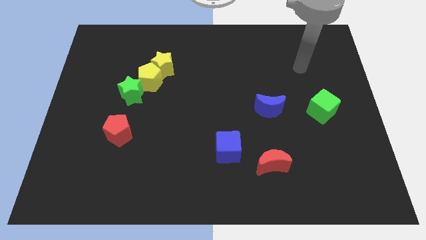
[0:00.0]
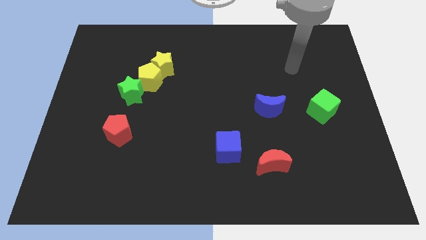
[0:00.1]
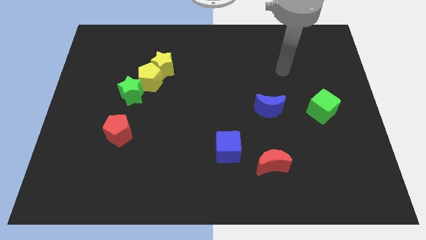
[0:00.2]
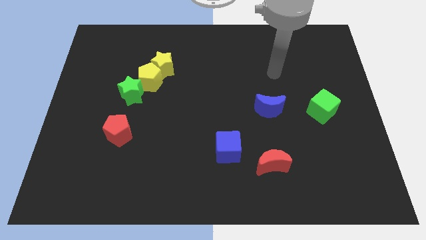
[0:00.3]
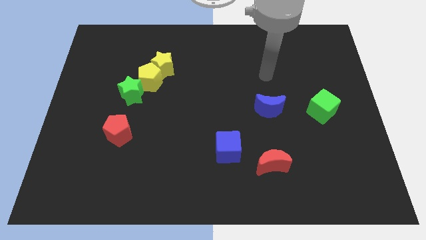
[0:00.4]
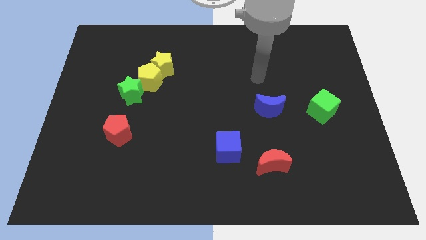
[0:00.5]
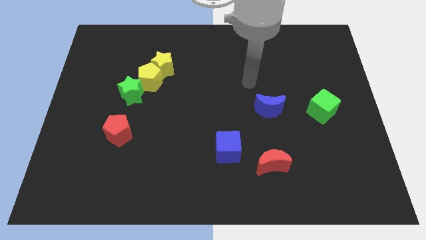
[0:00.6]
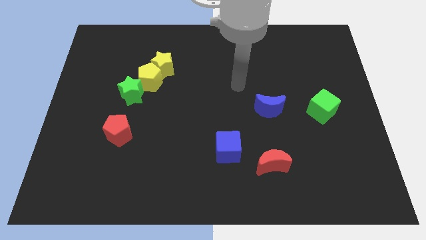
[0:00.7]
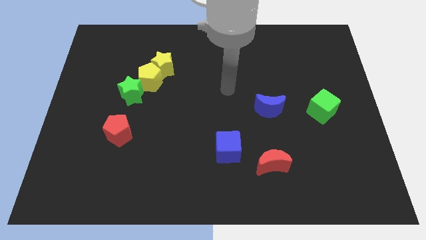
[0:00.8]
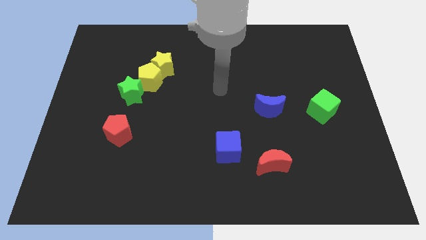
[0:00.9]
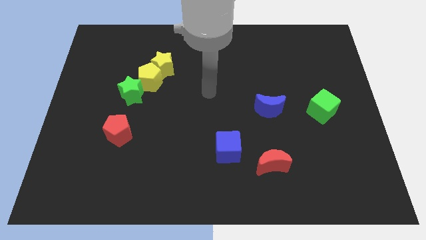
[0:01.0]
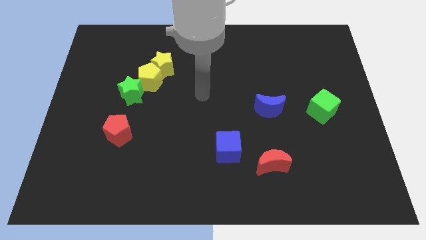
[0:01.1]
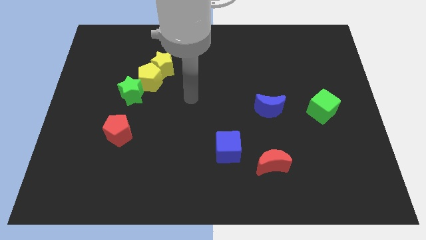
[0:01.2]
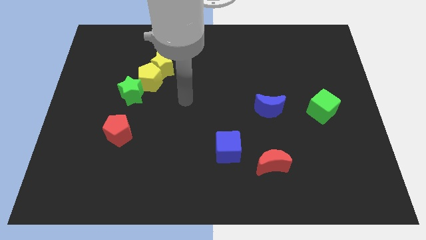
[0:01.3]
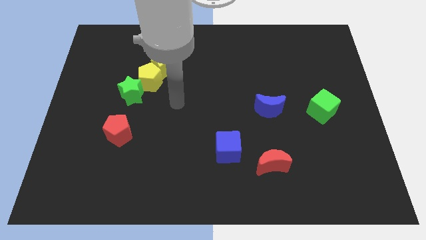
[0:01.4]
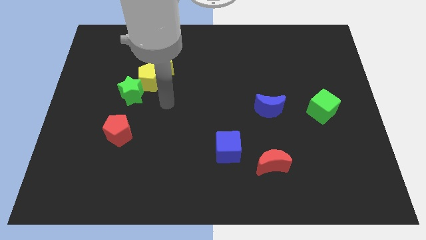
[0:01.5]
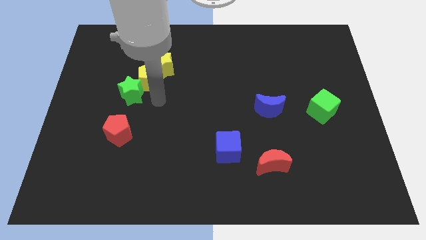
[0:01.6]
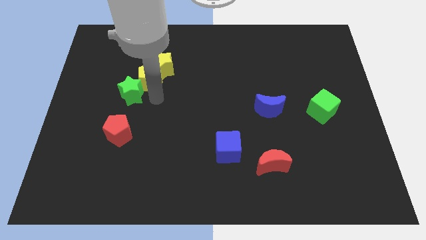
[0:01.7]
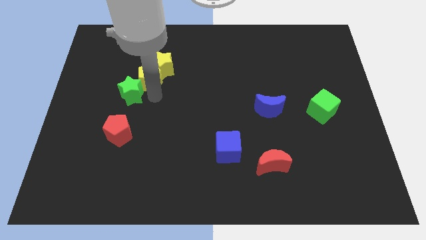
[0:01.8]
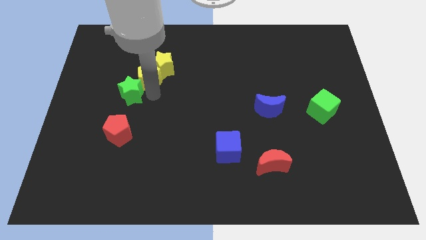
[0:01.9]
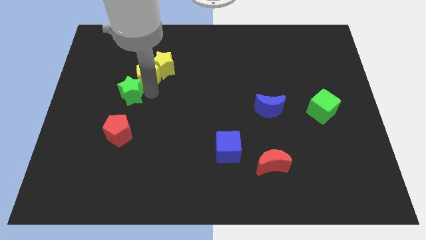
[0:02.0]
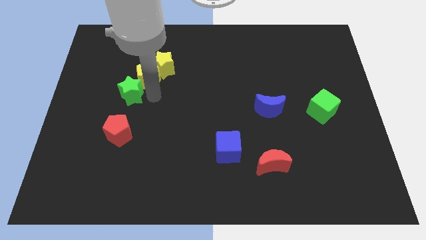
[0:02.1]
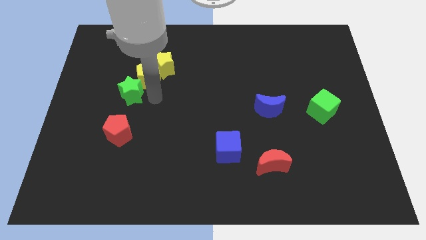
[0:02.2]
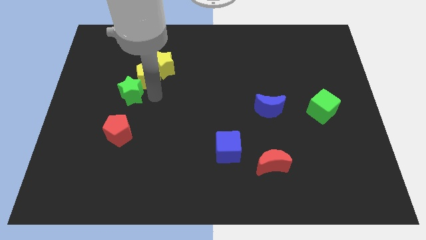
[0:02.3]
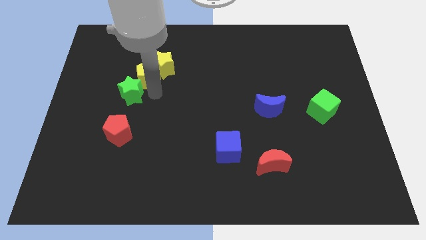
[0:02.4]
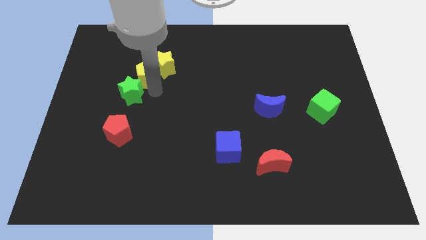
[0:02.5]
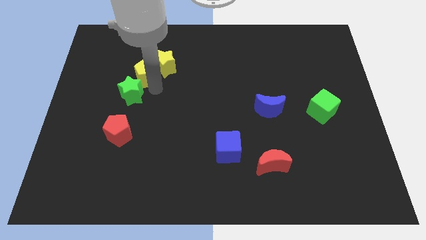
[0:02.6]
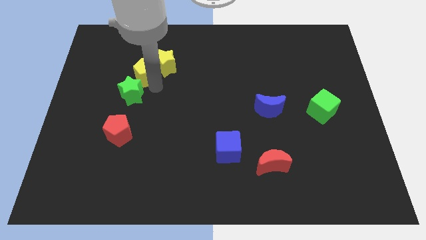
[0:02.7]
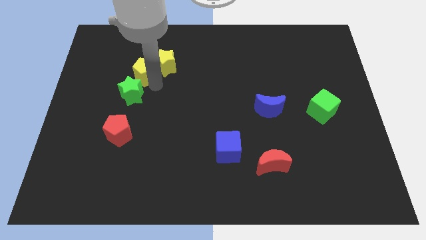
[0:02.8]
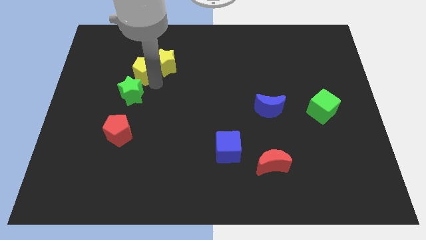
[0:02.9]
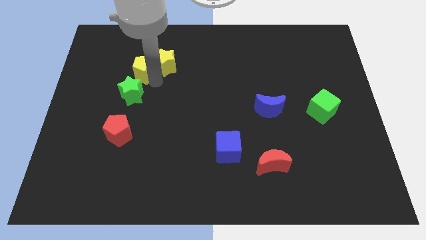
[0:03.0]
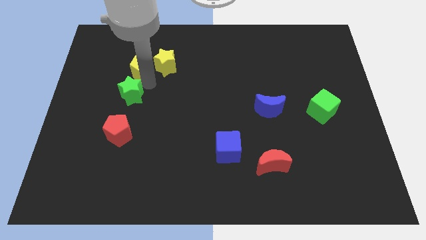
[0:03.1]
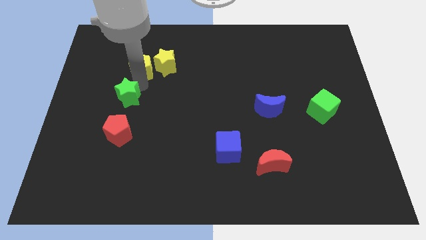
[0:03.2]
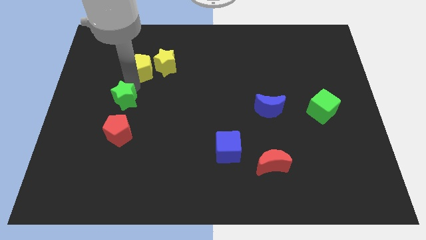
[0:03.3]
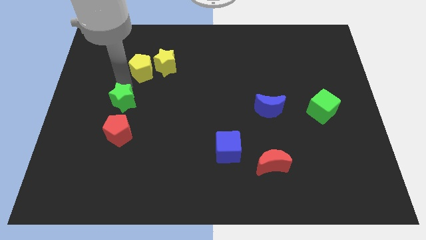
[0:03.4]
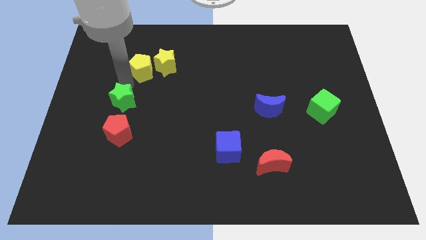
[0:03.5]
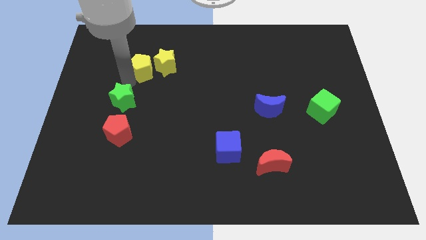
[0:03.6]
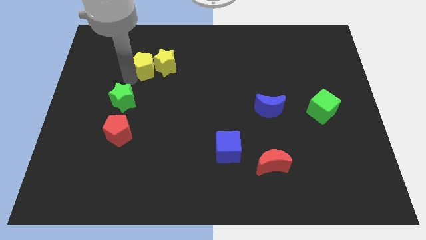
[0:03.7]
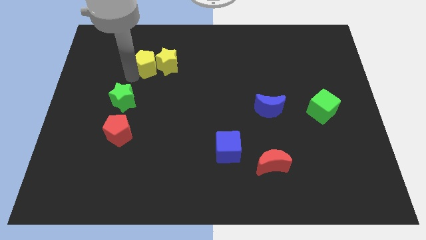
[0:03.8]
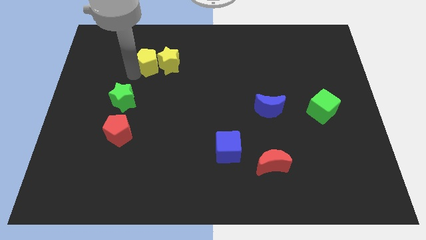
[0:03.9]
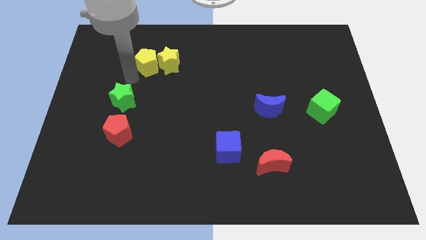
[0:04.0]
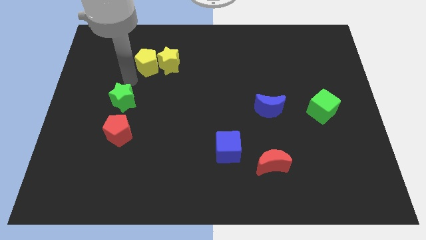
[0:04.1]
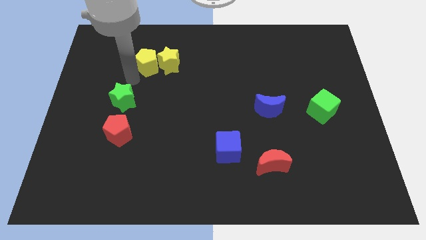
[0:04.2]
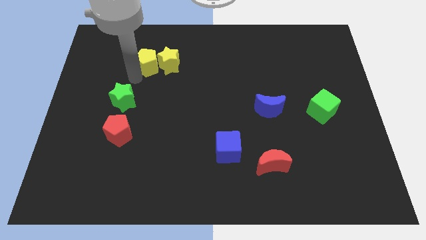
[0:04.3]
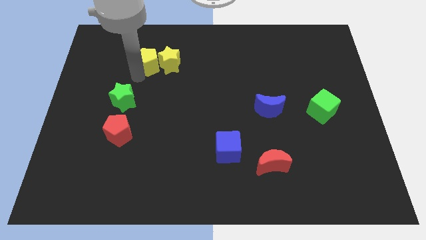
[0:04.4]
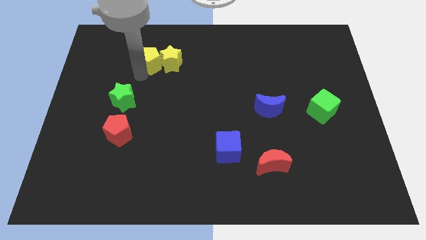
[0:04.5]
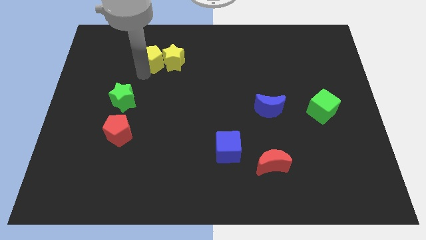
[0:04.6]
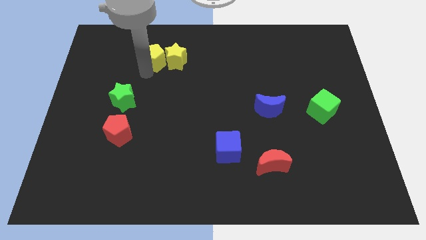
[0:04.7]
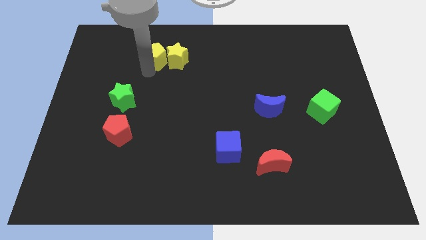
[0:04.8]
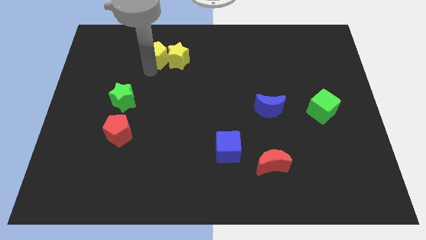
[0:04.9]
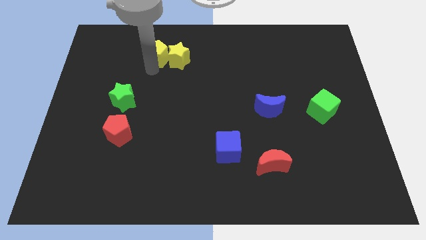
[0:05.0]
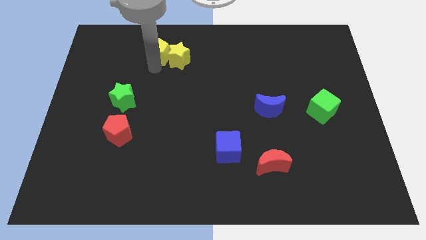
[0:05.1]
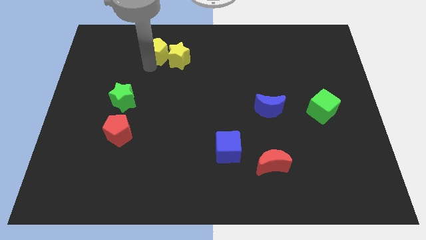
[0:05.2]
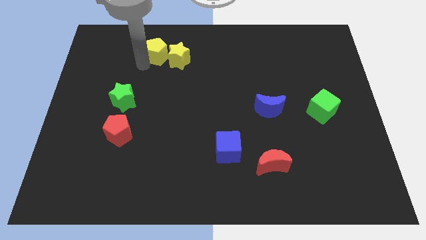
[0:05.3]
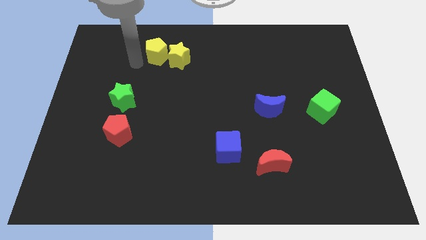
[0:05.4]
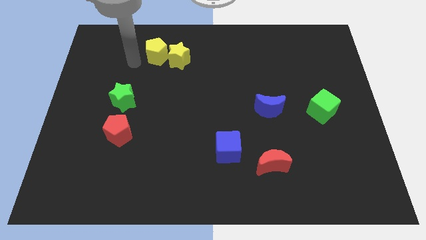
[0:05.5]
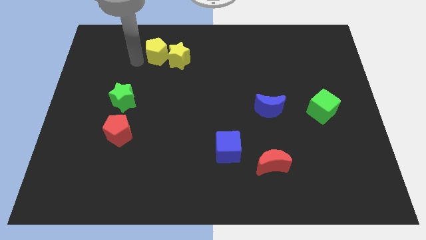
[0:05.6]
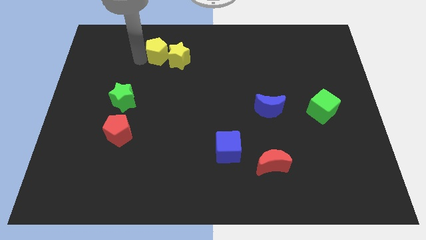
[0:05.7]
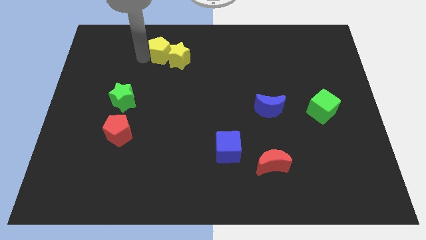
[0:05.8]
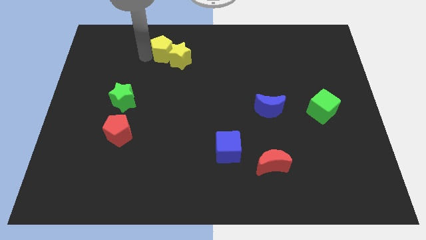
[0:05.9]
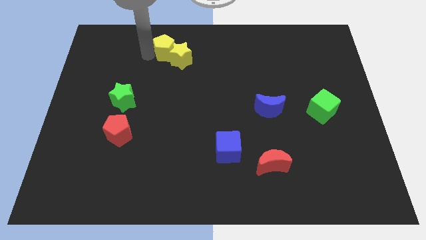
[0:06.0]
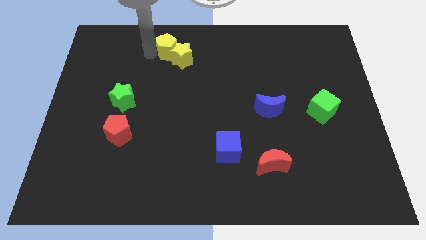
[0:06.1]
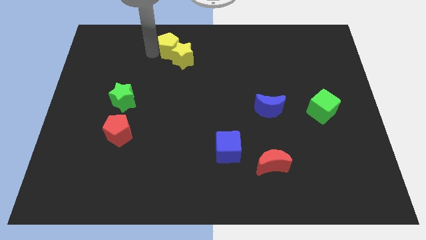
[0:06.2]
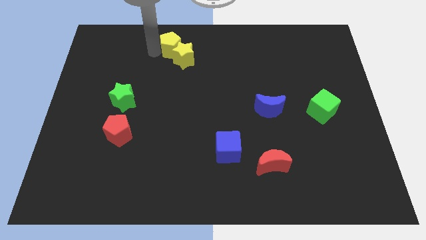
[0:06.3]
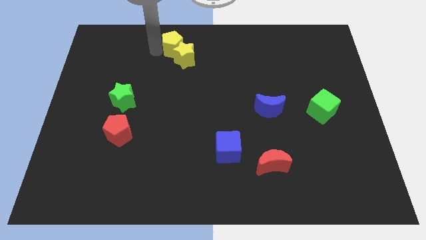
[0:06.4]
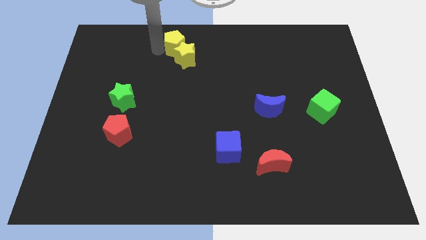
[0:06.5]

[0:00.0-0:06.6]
slide the yellow pentagon to the top
